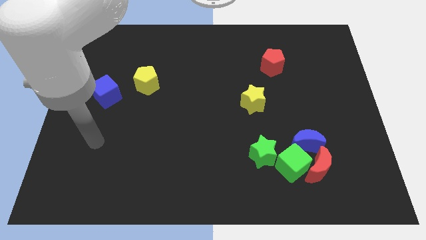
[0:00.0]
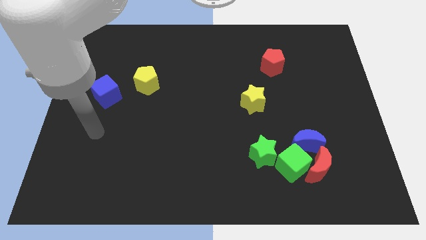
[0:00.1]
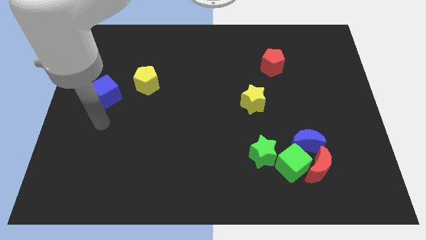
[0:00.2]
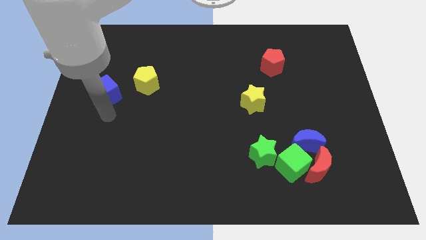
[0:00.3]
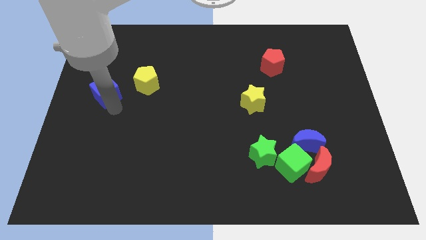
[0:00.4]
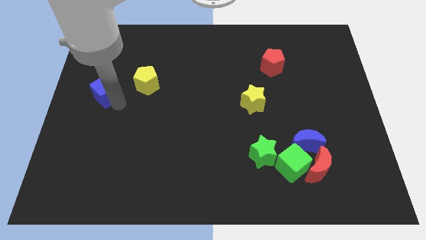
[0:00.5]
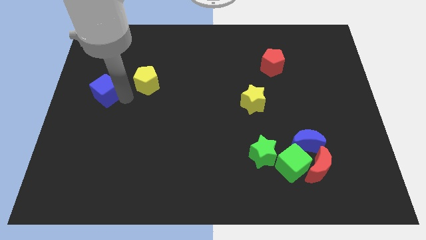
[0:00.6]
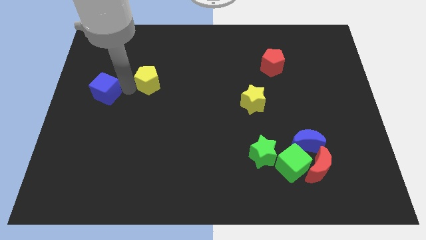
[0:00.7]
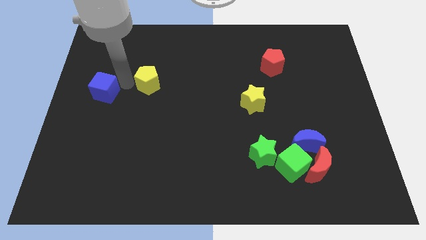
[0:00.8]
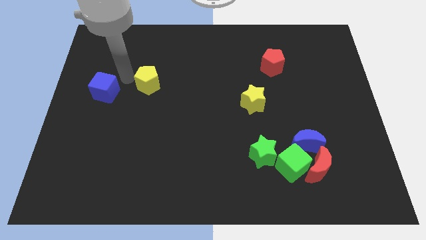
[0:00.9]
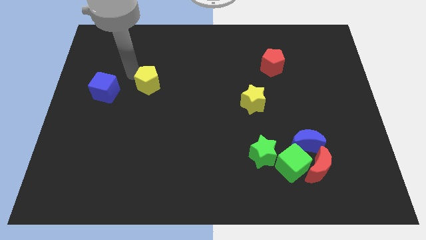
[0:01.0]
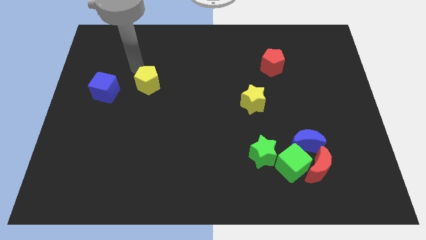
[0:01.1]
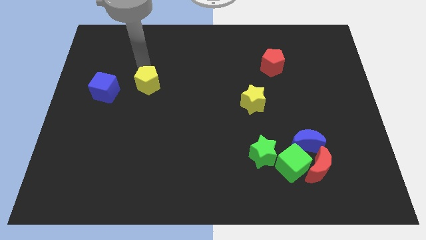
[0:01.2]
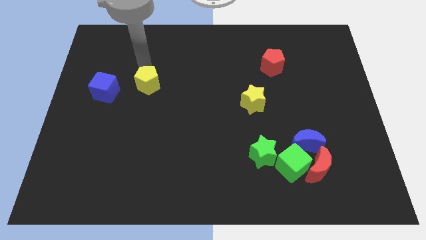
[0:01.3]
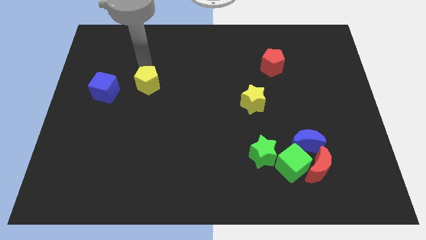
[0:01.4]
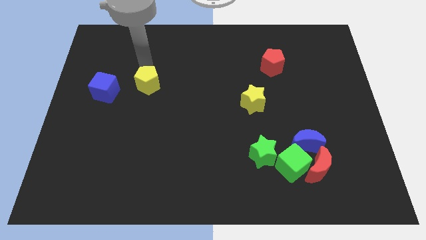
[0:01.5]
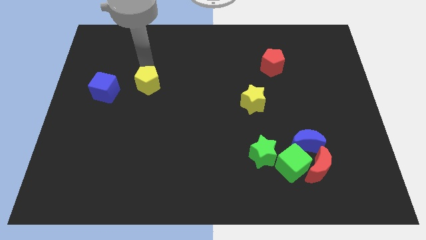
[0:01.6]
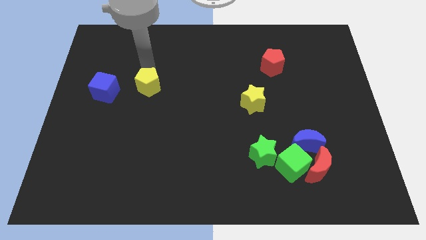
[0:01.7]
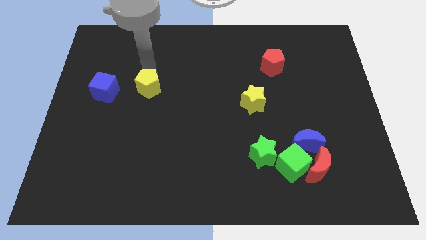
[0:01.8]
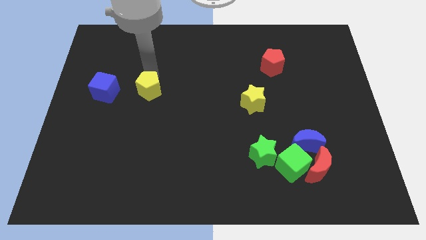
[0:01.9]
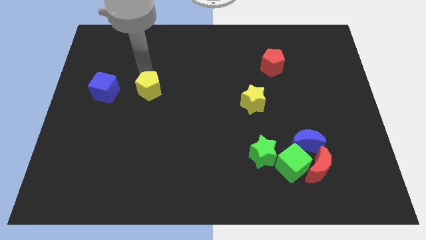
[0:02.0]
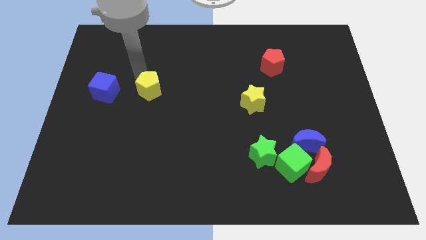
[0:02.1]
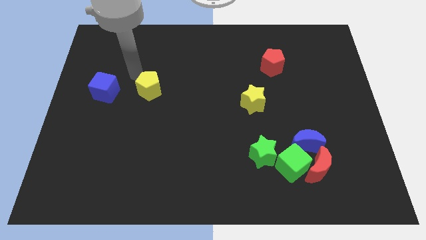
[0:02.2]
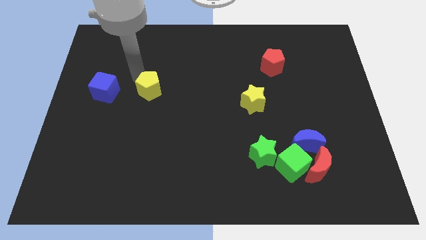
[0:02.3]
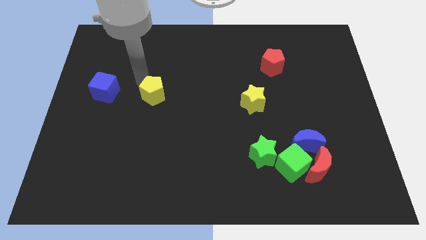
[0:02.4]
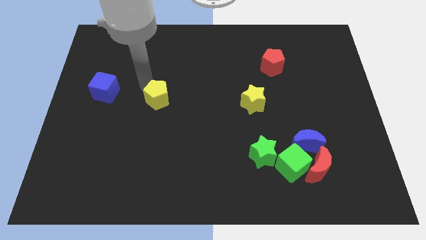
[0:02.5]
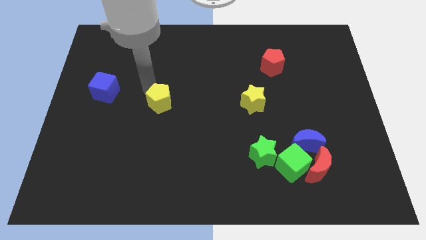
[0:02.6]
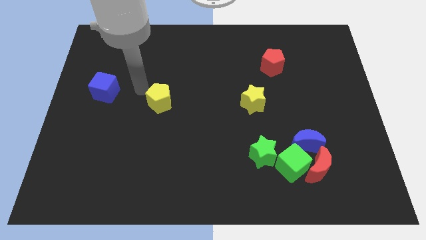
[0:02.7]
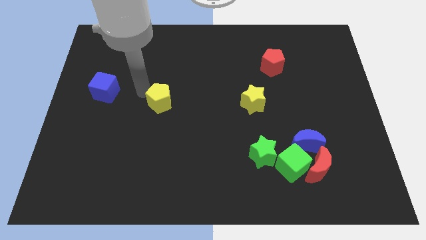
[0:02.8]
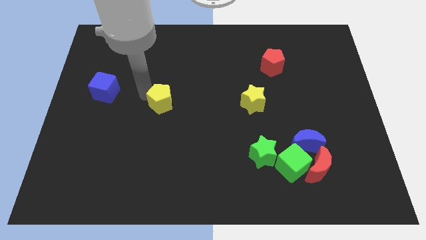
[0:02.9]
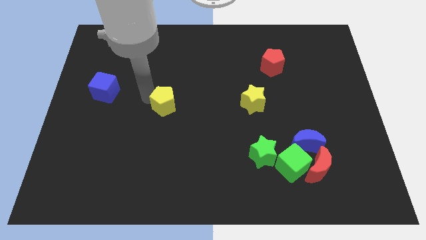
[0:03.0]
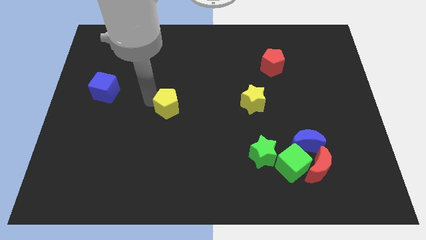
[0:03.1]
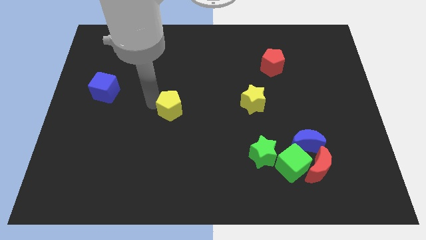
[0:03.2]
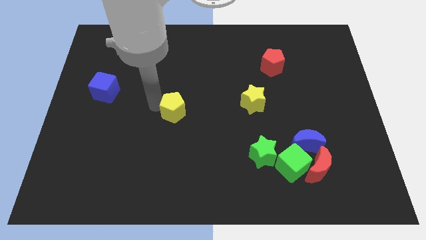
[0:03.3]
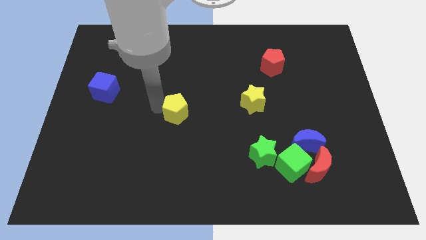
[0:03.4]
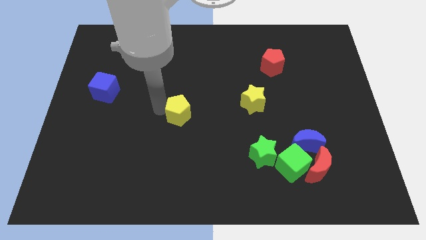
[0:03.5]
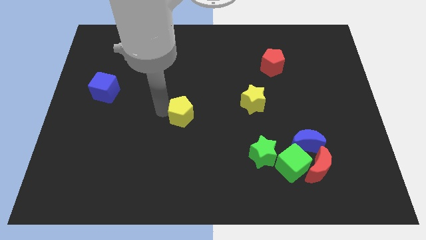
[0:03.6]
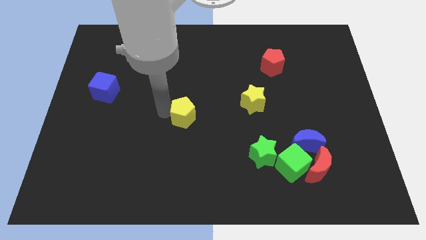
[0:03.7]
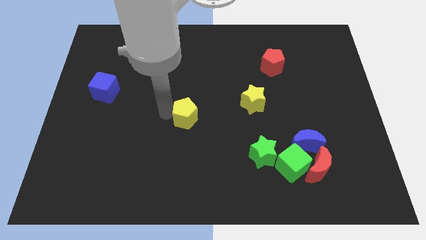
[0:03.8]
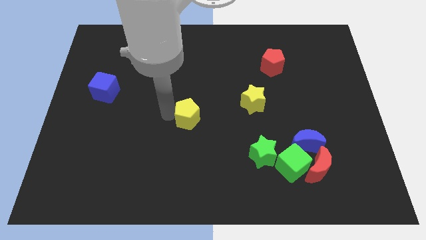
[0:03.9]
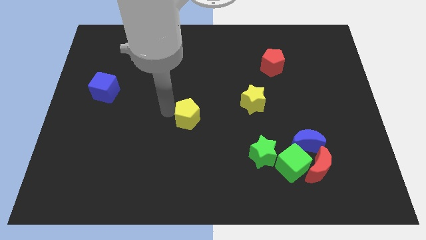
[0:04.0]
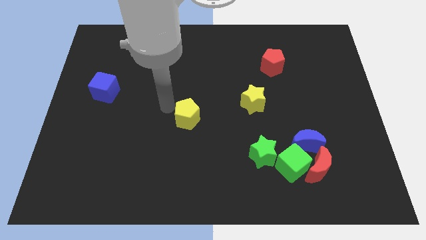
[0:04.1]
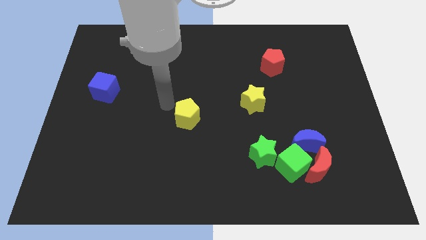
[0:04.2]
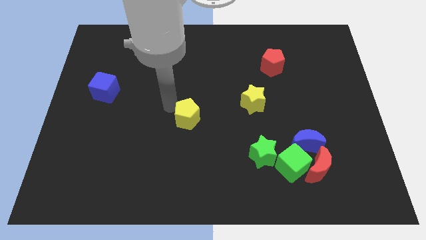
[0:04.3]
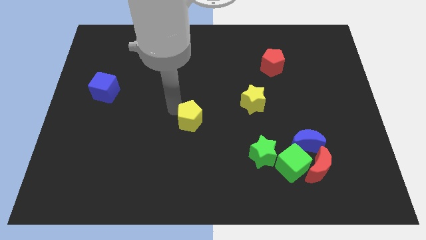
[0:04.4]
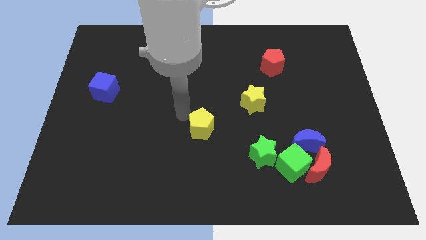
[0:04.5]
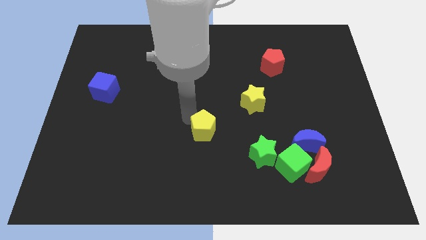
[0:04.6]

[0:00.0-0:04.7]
slide the yellow pentagon down and right

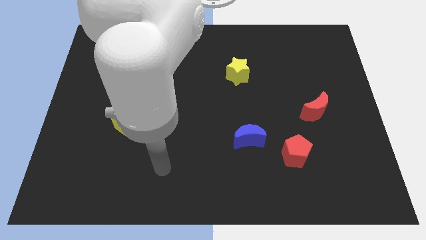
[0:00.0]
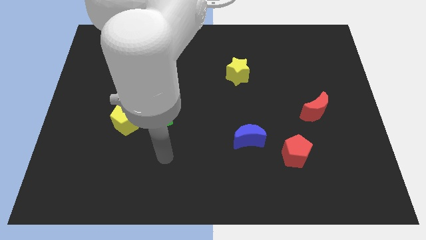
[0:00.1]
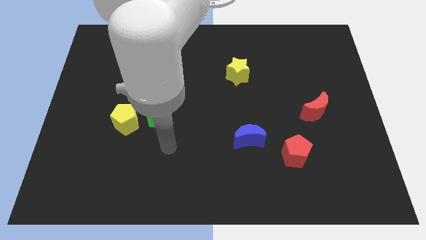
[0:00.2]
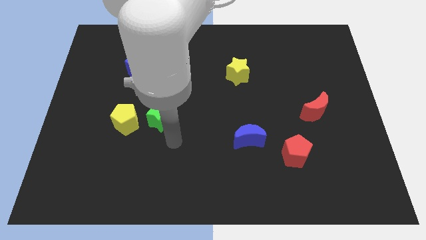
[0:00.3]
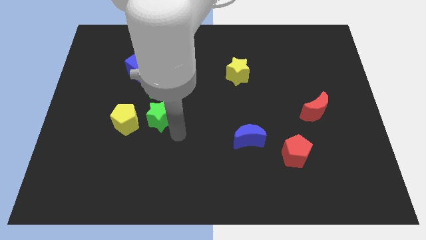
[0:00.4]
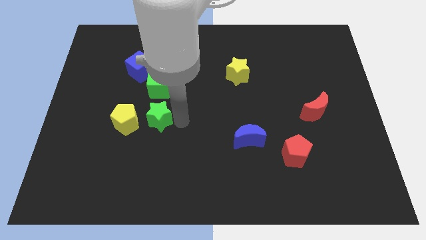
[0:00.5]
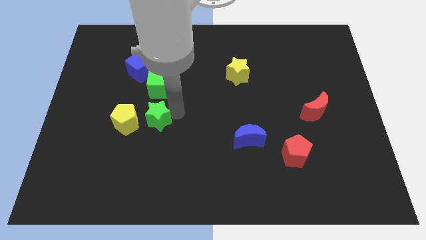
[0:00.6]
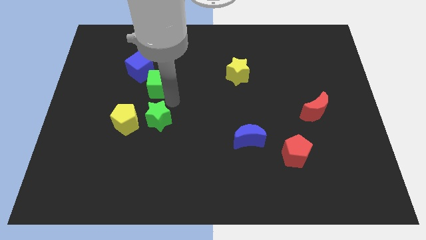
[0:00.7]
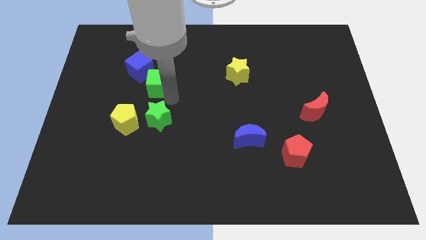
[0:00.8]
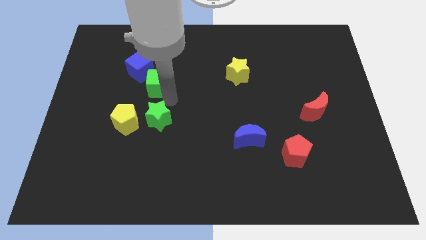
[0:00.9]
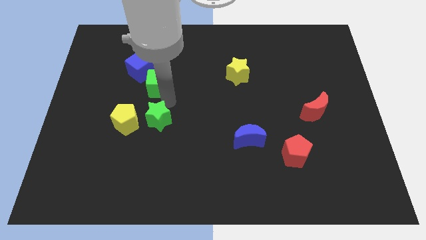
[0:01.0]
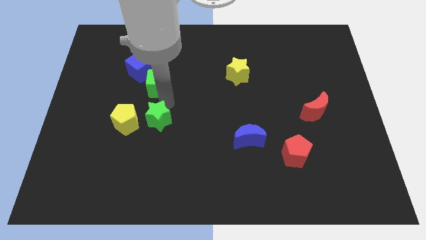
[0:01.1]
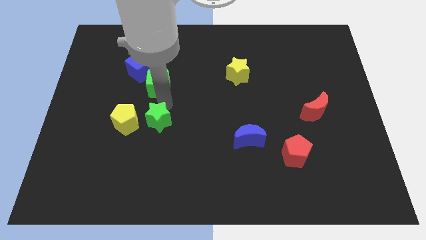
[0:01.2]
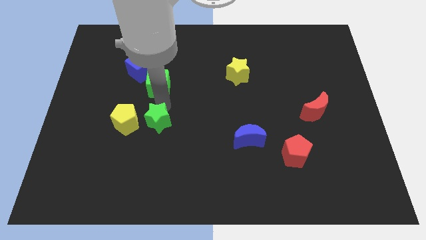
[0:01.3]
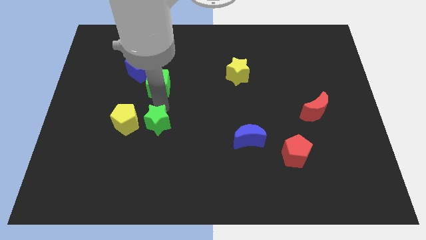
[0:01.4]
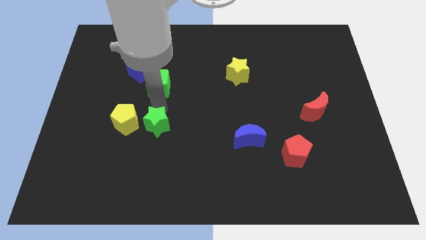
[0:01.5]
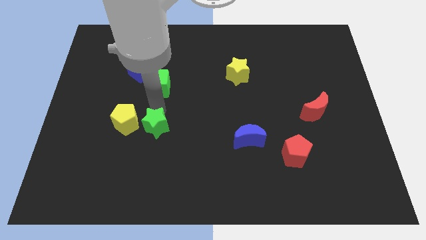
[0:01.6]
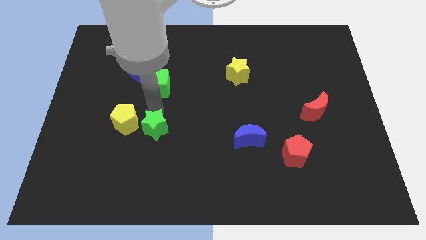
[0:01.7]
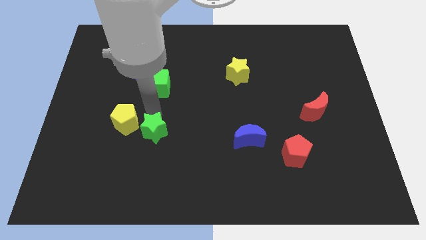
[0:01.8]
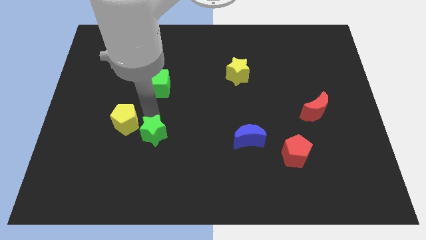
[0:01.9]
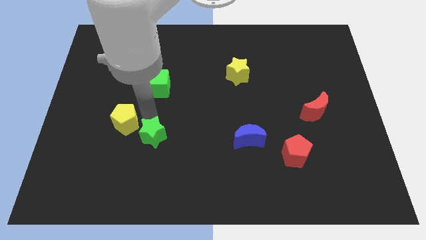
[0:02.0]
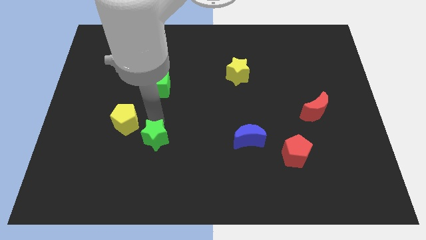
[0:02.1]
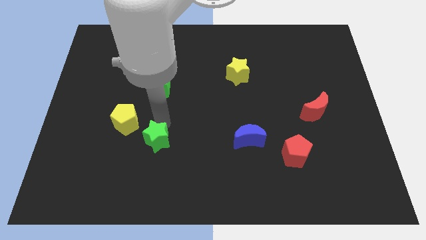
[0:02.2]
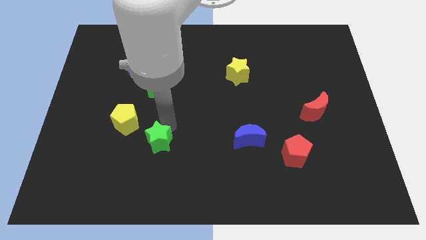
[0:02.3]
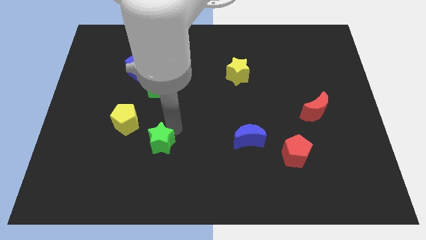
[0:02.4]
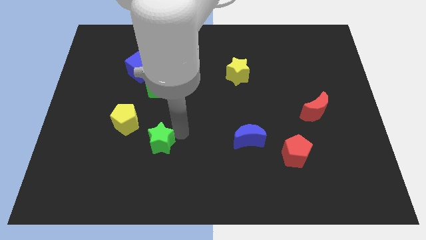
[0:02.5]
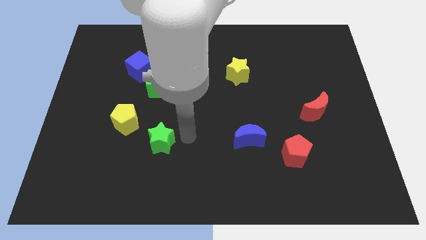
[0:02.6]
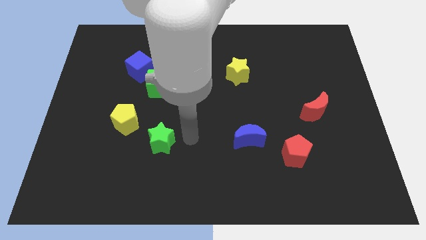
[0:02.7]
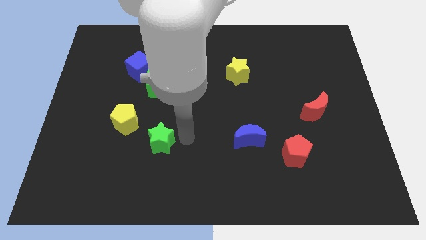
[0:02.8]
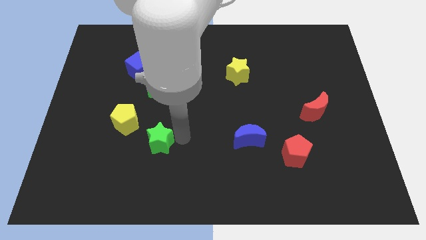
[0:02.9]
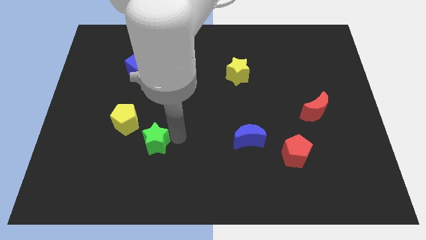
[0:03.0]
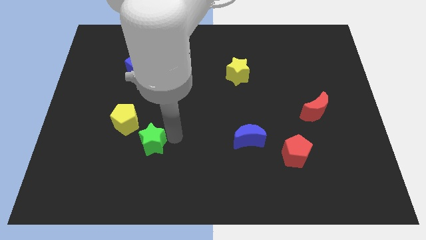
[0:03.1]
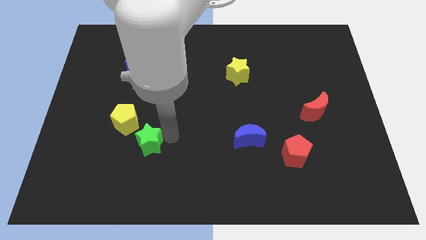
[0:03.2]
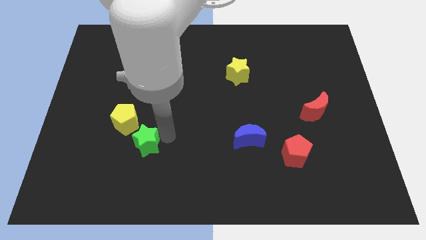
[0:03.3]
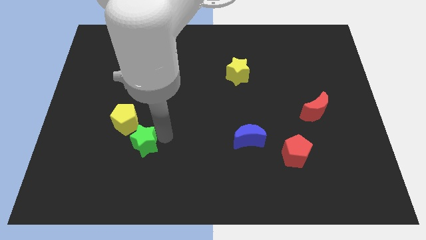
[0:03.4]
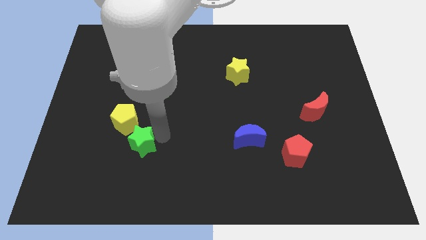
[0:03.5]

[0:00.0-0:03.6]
move the green star somewhat downwards and then left
